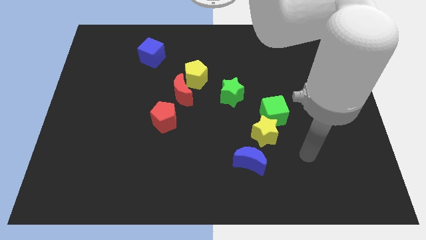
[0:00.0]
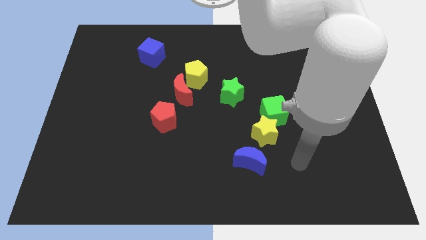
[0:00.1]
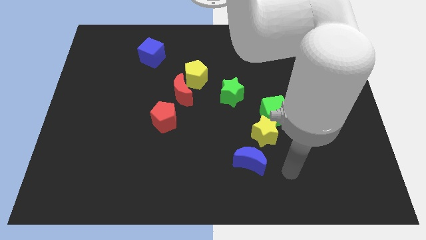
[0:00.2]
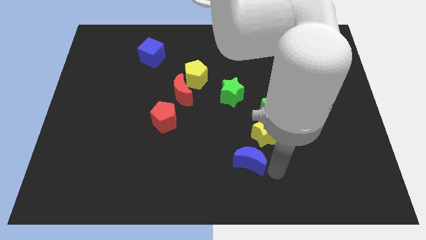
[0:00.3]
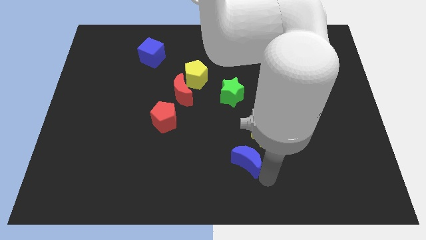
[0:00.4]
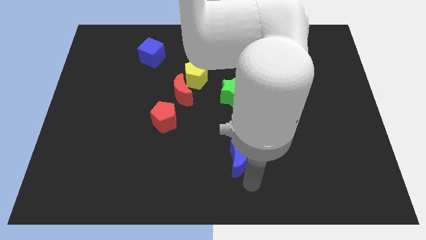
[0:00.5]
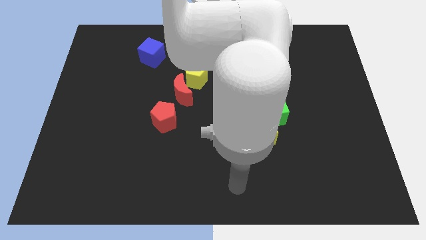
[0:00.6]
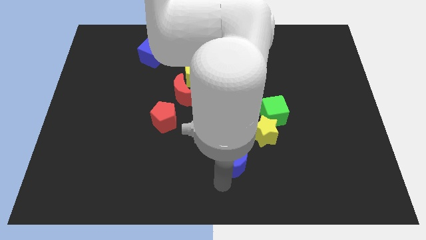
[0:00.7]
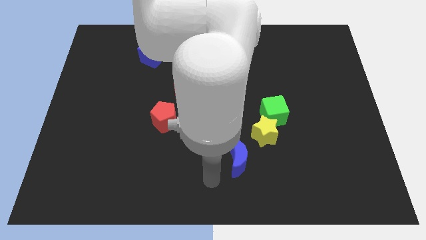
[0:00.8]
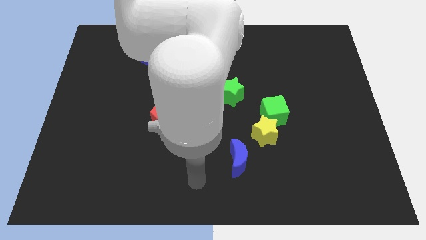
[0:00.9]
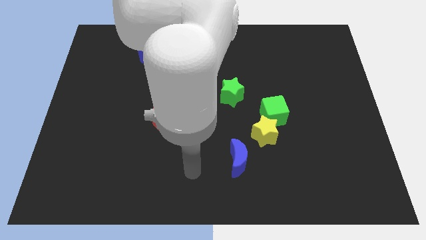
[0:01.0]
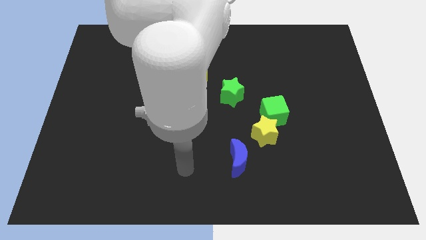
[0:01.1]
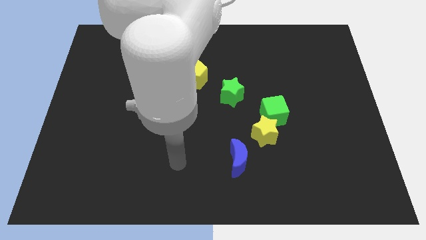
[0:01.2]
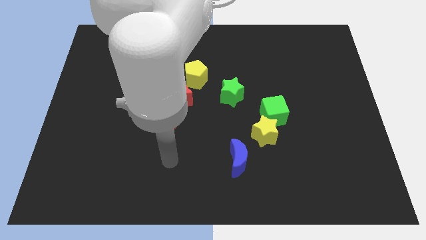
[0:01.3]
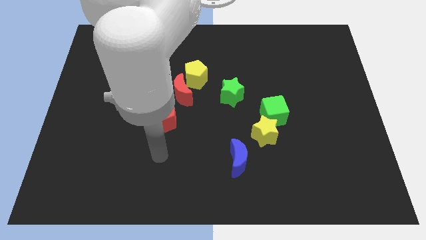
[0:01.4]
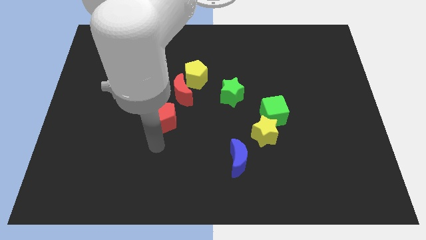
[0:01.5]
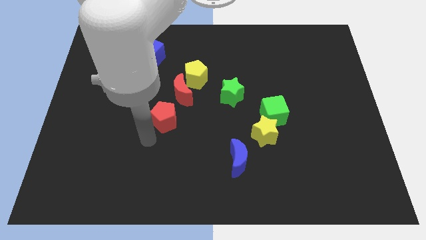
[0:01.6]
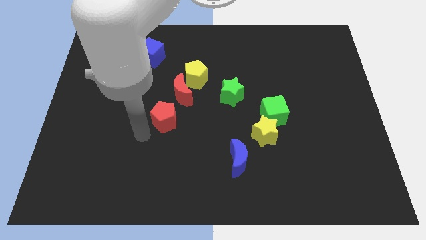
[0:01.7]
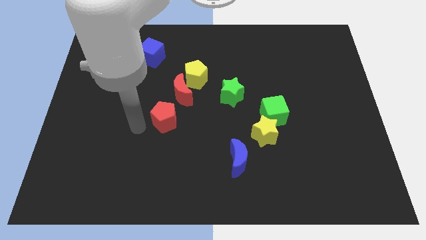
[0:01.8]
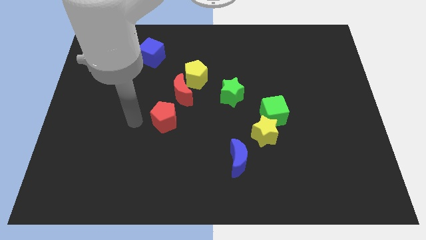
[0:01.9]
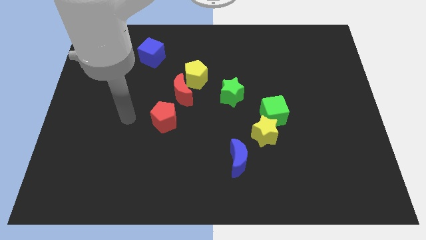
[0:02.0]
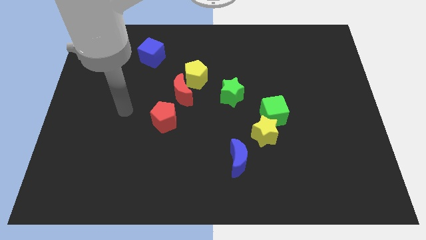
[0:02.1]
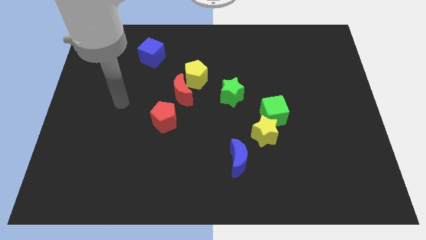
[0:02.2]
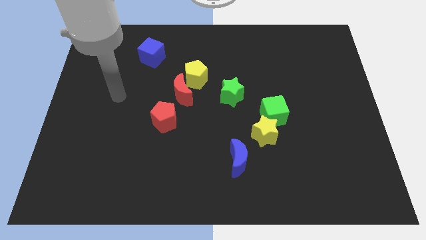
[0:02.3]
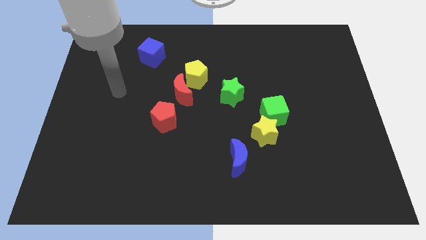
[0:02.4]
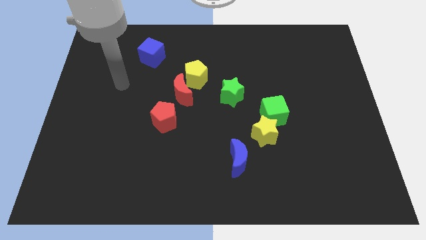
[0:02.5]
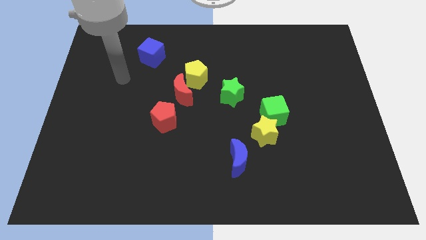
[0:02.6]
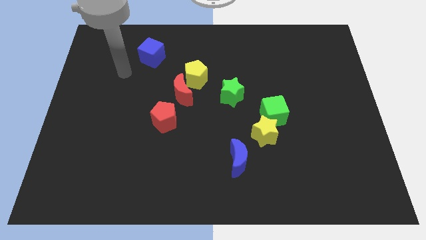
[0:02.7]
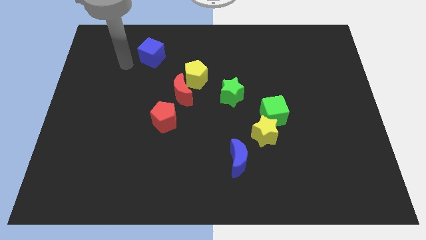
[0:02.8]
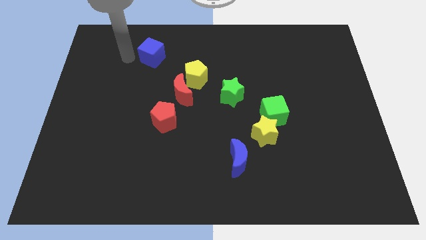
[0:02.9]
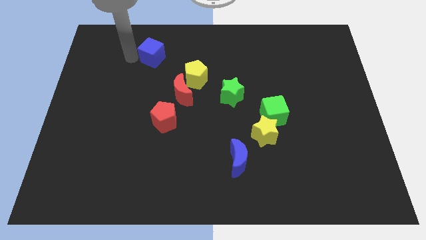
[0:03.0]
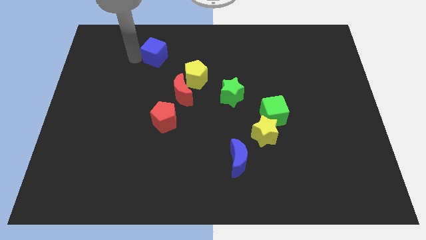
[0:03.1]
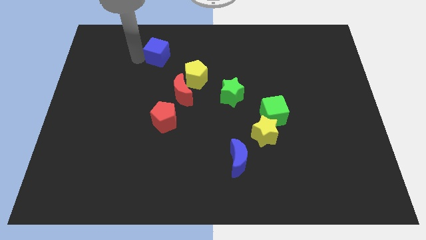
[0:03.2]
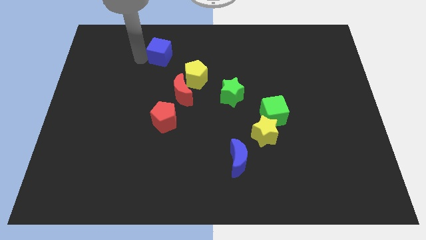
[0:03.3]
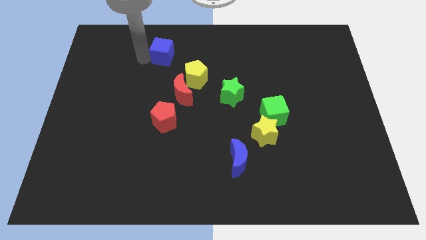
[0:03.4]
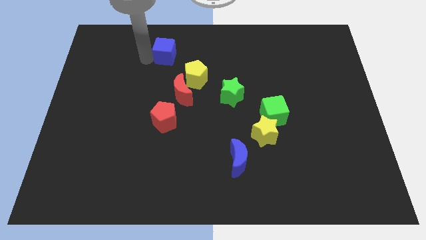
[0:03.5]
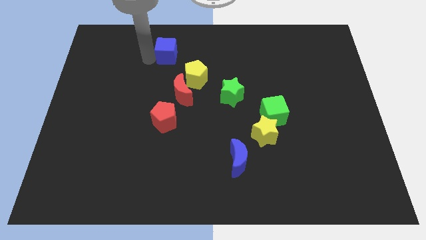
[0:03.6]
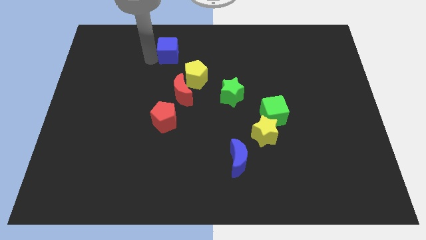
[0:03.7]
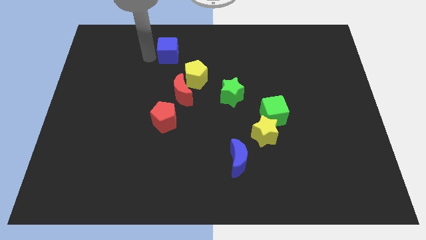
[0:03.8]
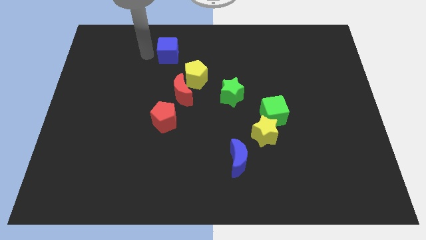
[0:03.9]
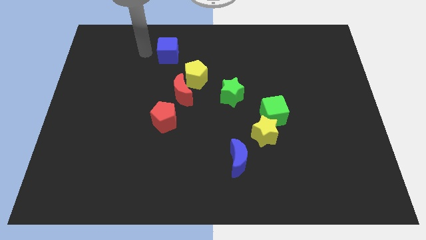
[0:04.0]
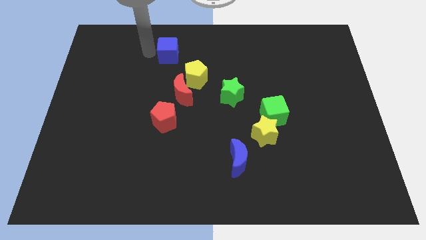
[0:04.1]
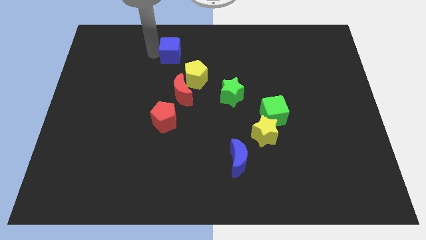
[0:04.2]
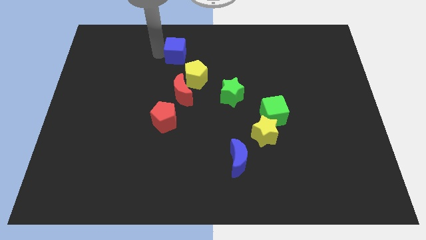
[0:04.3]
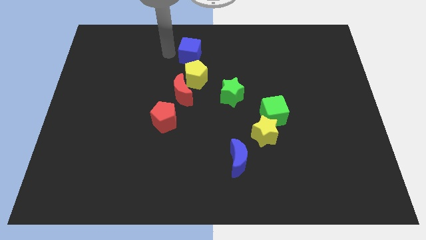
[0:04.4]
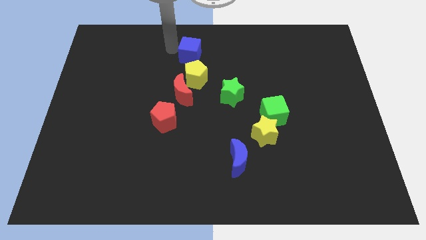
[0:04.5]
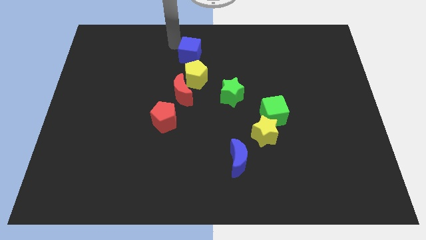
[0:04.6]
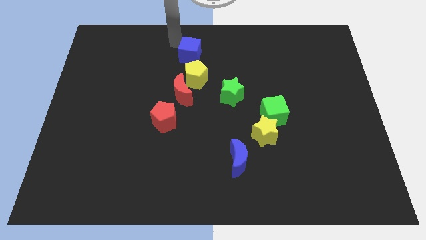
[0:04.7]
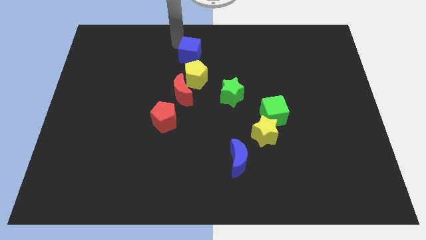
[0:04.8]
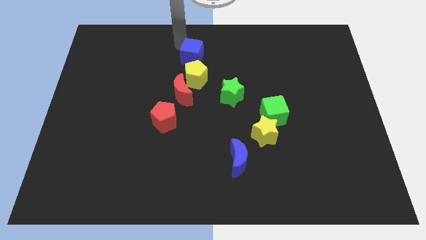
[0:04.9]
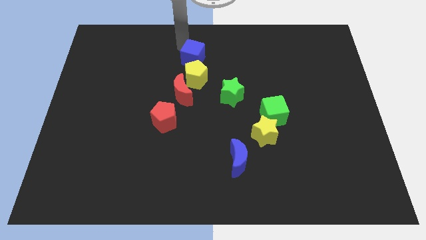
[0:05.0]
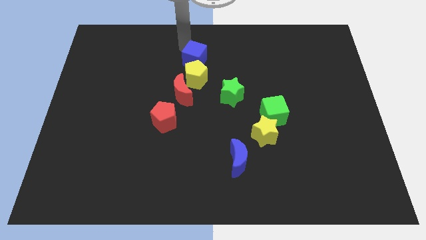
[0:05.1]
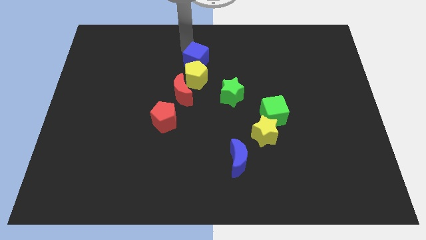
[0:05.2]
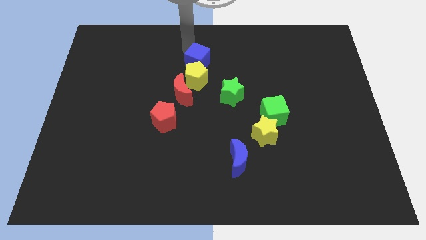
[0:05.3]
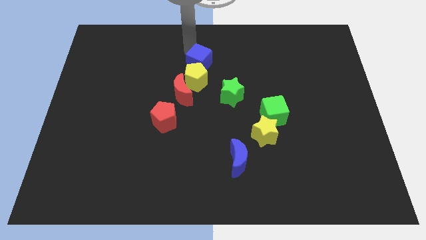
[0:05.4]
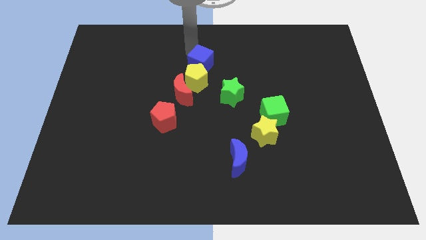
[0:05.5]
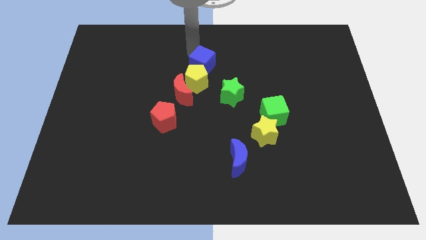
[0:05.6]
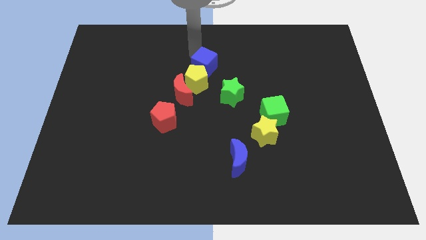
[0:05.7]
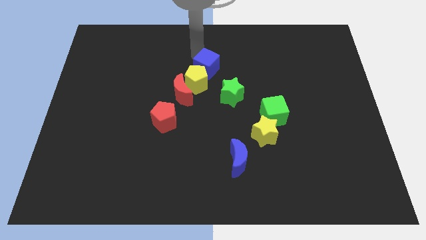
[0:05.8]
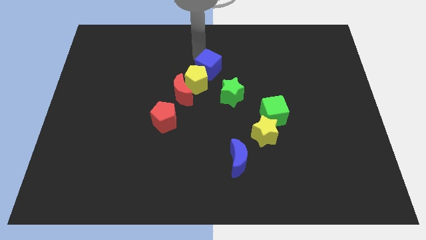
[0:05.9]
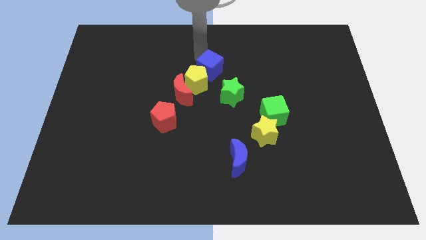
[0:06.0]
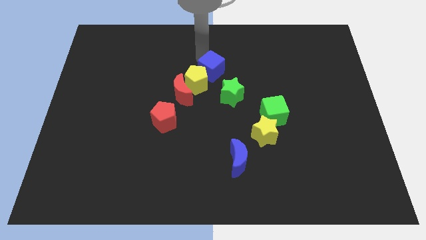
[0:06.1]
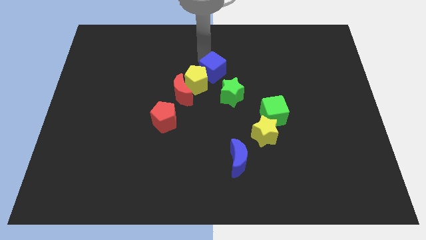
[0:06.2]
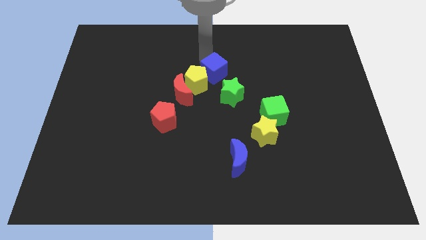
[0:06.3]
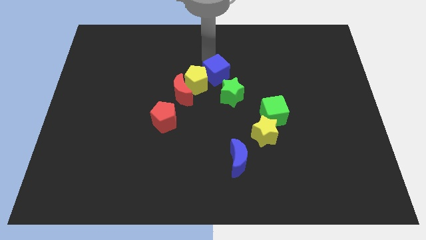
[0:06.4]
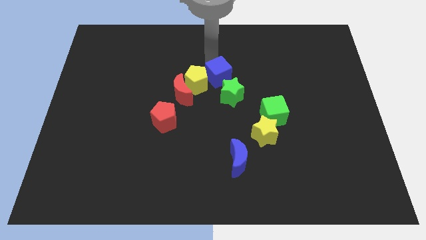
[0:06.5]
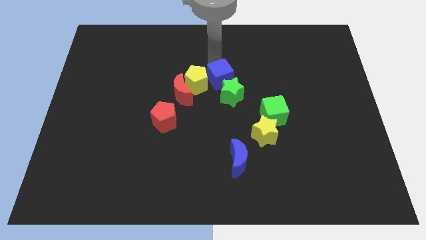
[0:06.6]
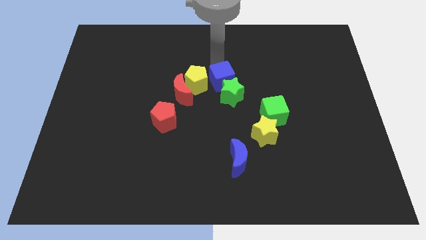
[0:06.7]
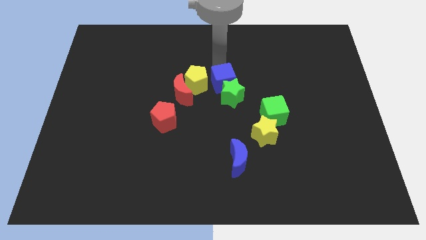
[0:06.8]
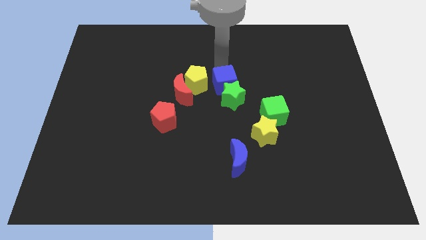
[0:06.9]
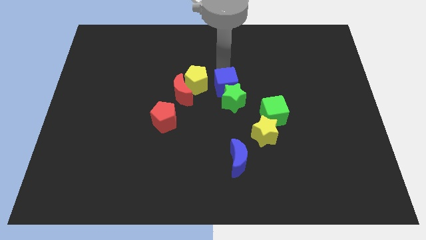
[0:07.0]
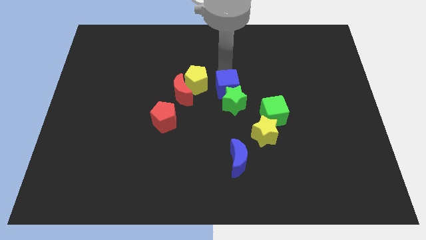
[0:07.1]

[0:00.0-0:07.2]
slide the blue cube diagonally downwards and to the right

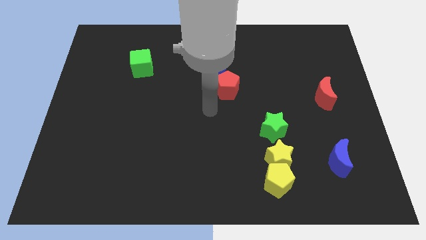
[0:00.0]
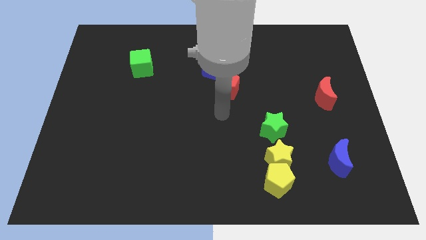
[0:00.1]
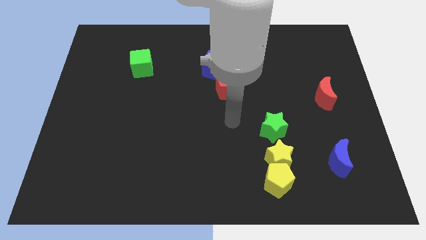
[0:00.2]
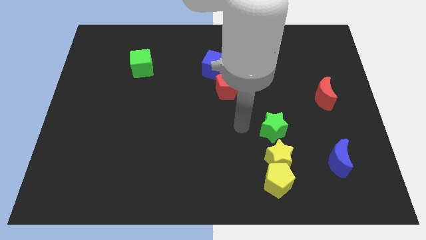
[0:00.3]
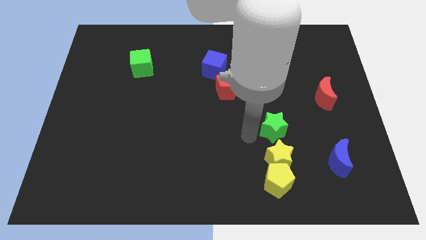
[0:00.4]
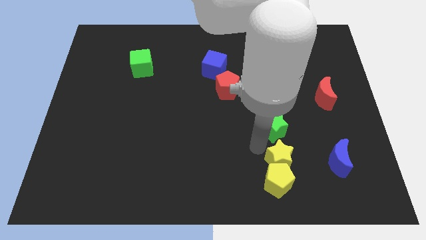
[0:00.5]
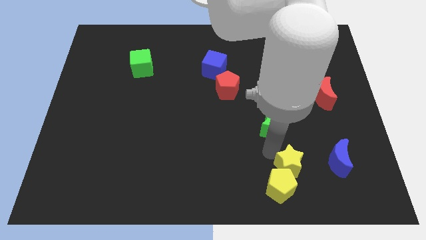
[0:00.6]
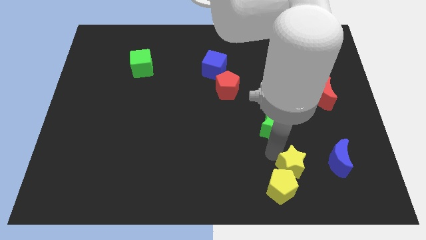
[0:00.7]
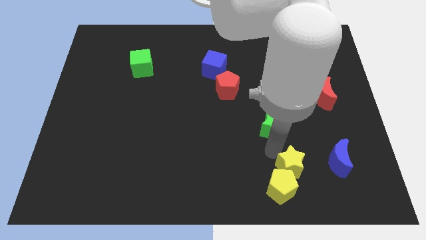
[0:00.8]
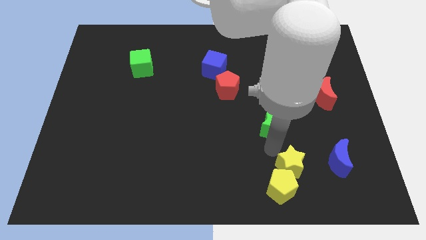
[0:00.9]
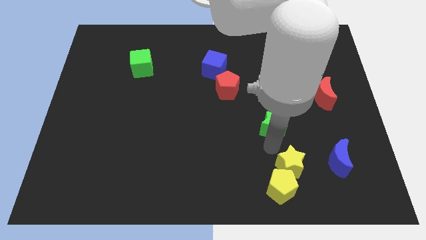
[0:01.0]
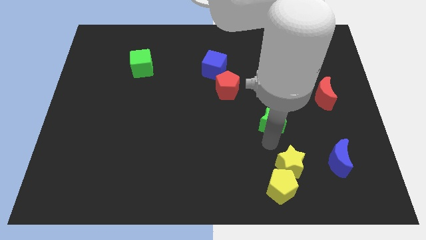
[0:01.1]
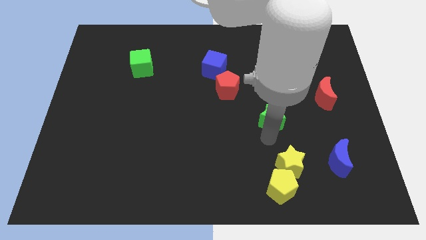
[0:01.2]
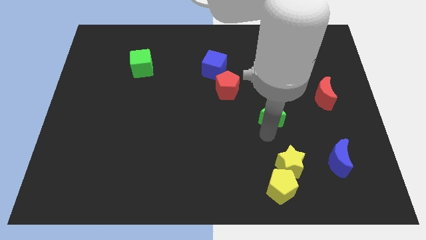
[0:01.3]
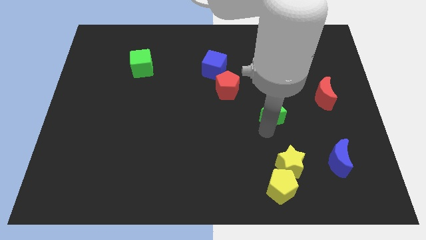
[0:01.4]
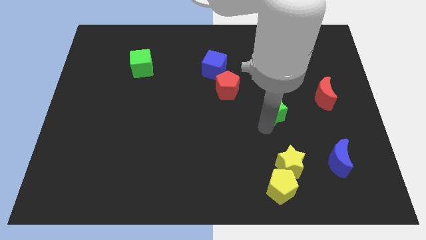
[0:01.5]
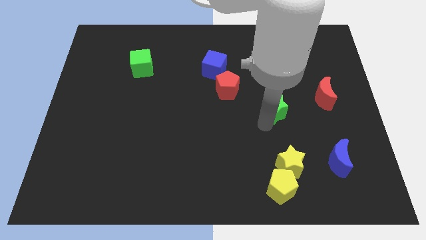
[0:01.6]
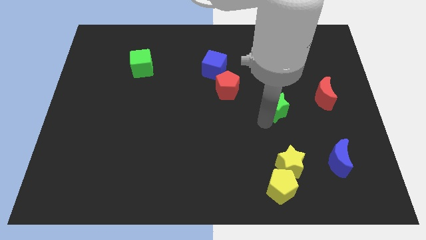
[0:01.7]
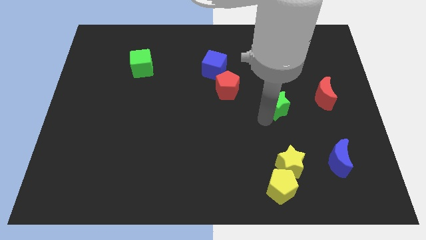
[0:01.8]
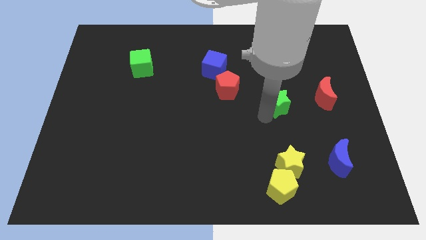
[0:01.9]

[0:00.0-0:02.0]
slide the green star somewhat up
